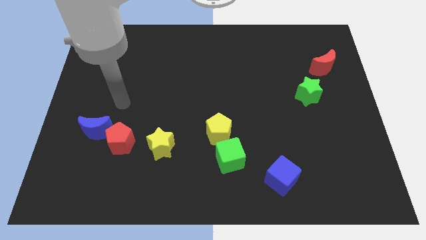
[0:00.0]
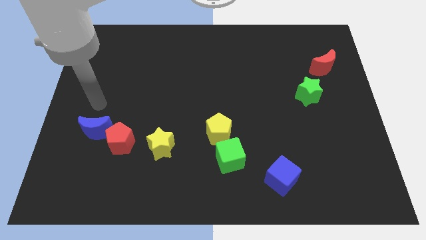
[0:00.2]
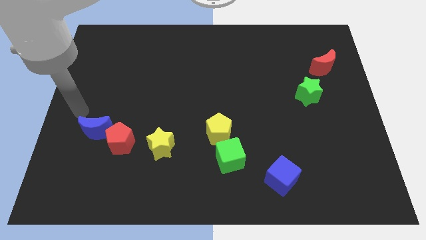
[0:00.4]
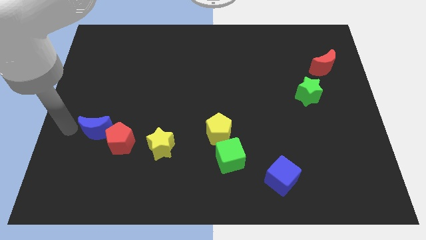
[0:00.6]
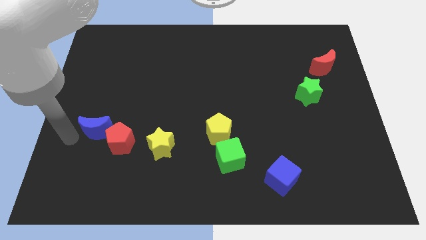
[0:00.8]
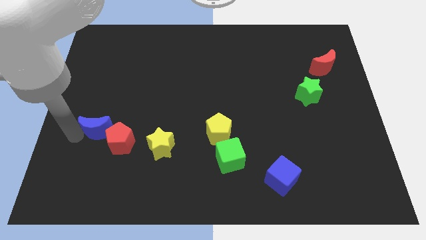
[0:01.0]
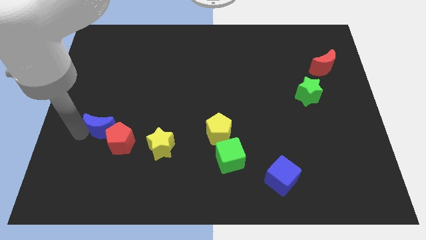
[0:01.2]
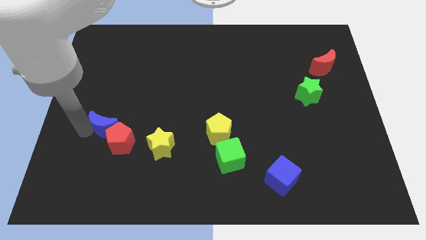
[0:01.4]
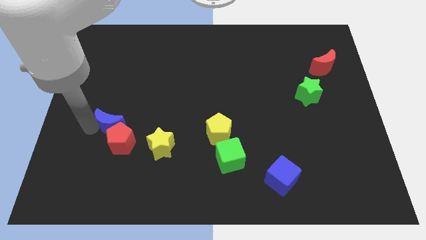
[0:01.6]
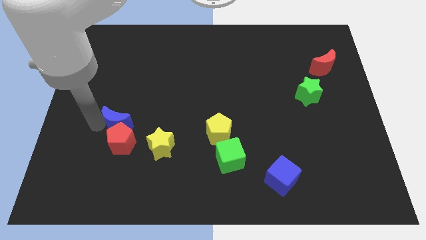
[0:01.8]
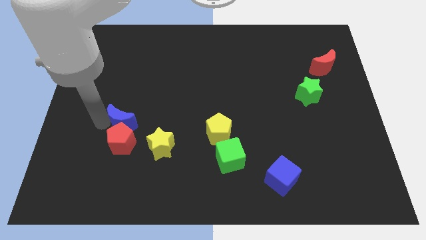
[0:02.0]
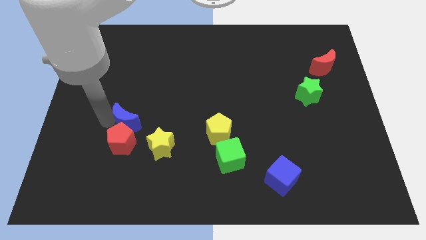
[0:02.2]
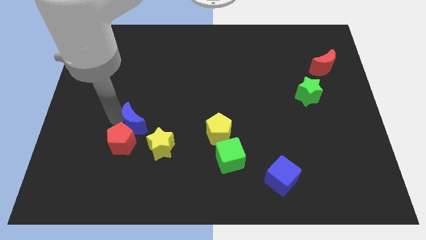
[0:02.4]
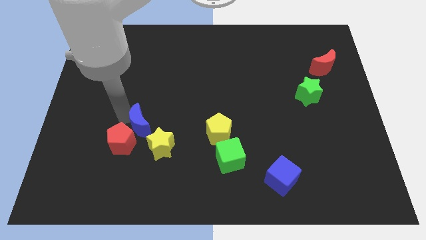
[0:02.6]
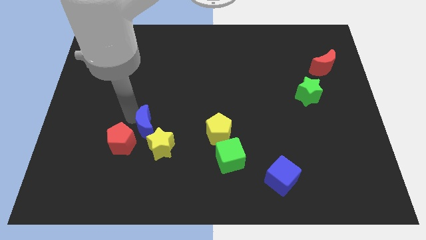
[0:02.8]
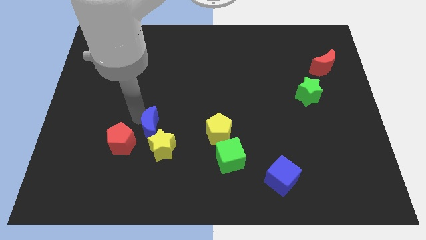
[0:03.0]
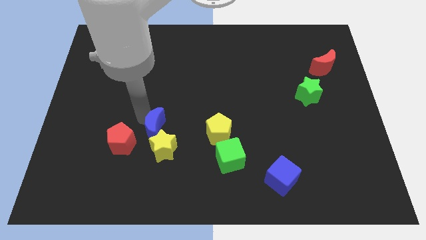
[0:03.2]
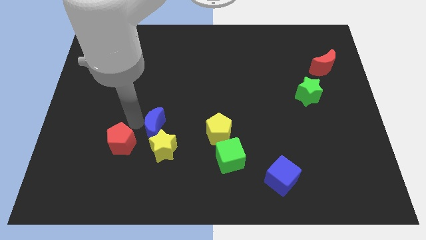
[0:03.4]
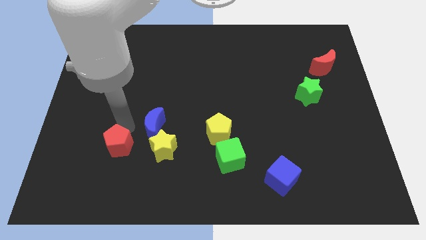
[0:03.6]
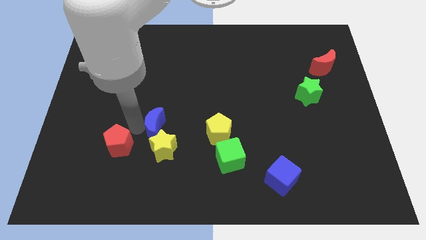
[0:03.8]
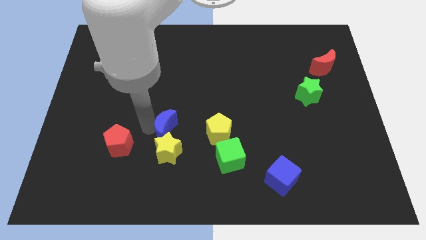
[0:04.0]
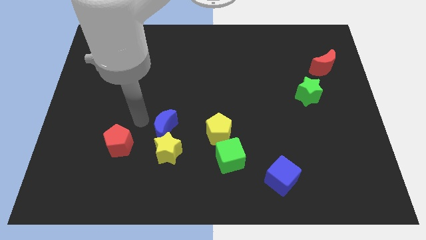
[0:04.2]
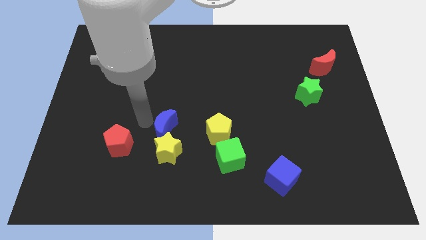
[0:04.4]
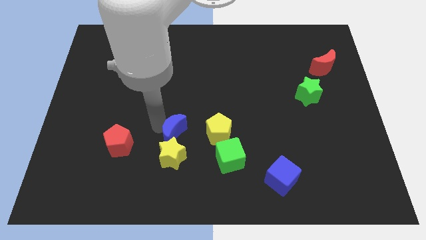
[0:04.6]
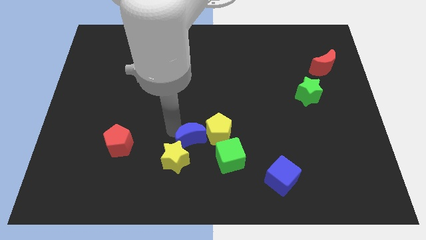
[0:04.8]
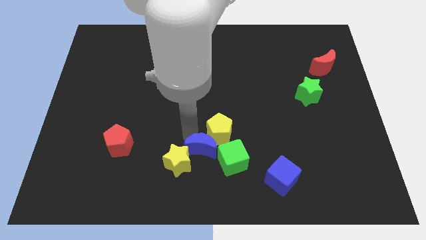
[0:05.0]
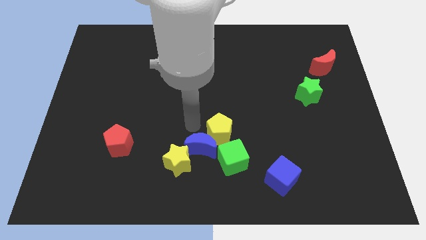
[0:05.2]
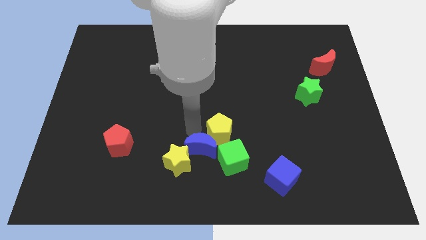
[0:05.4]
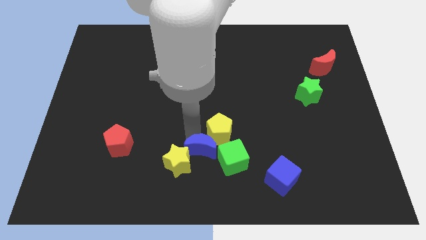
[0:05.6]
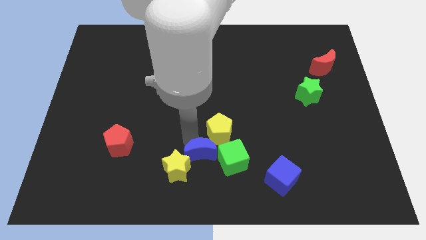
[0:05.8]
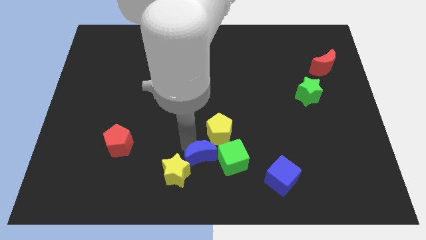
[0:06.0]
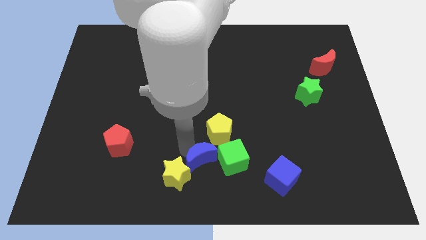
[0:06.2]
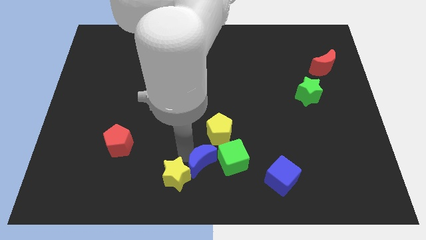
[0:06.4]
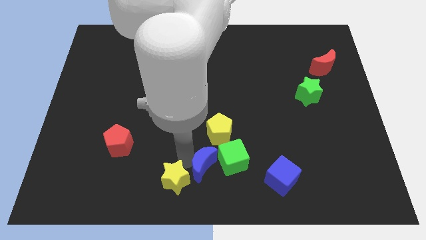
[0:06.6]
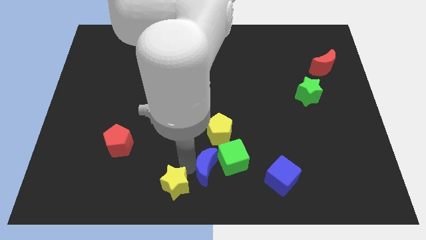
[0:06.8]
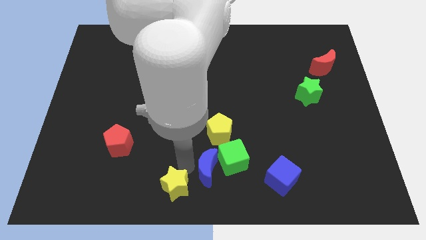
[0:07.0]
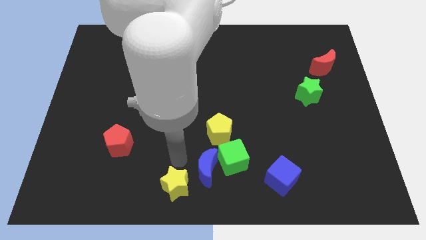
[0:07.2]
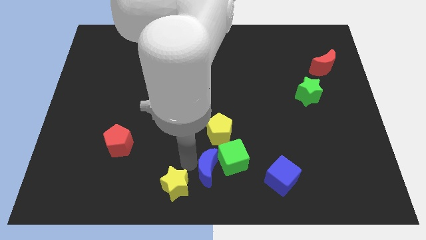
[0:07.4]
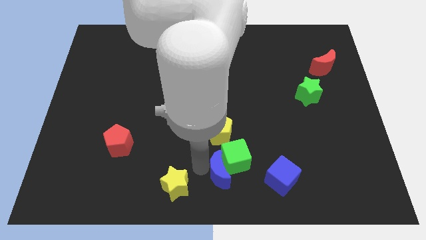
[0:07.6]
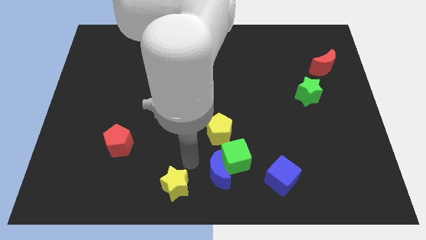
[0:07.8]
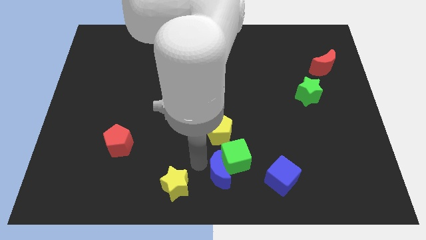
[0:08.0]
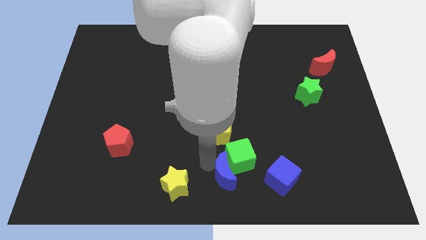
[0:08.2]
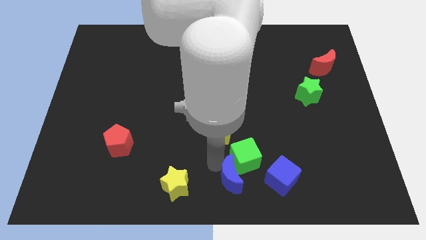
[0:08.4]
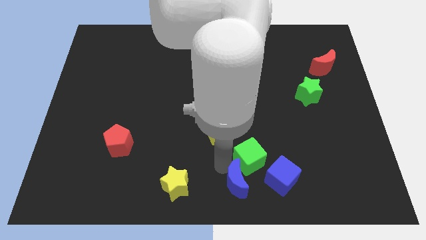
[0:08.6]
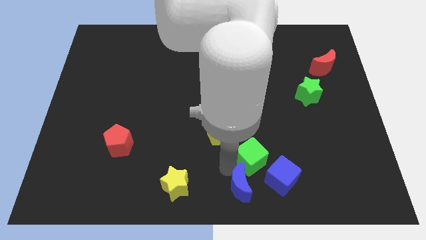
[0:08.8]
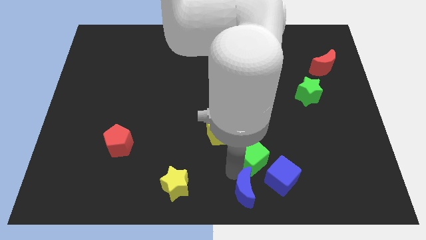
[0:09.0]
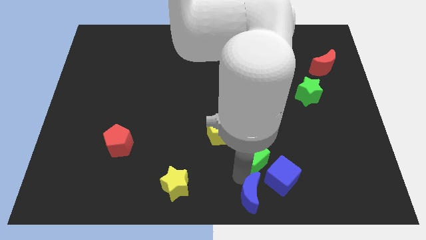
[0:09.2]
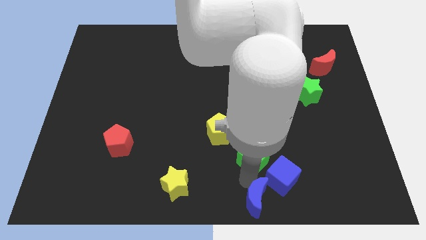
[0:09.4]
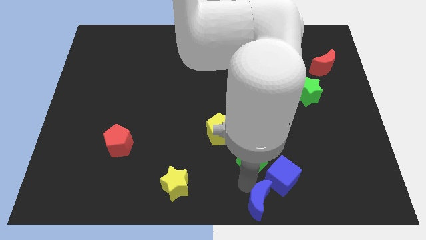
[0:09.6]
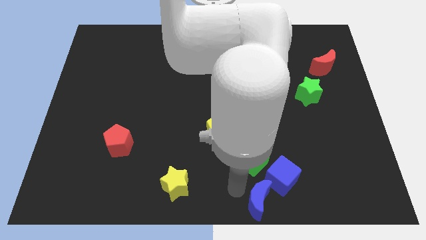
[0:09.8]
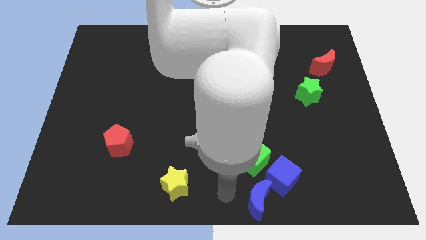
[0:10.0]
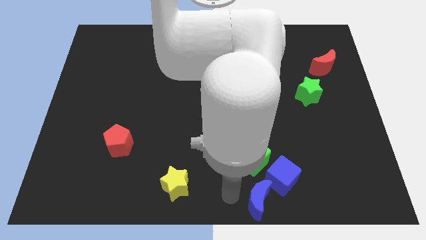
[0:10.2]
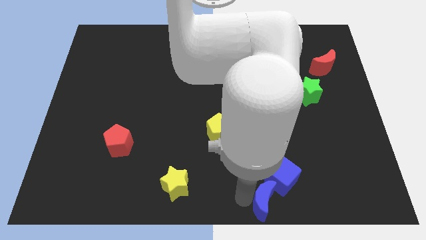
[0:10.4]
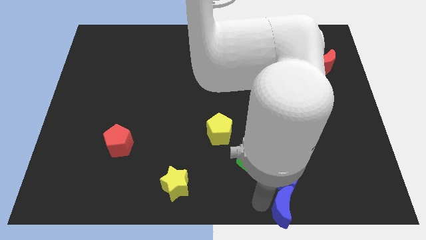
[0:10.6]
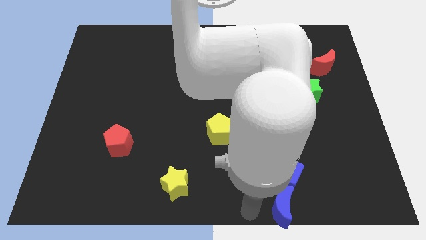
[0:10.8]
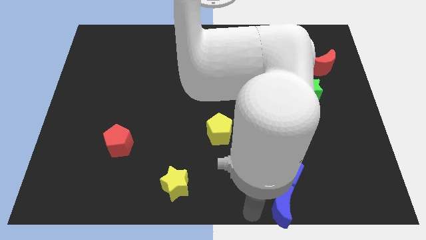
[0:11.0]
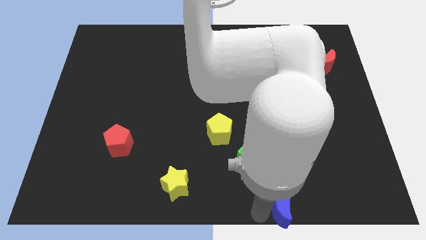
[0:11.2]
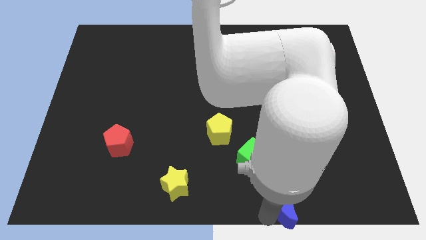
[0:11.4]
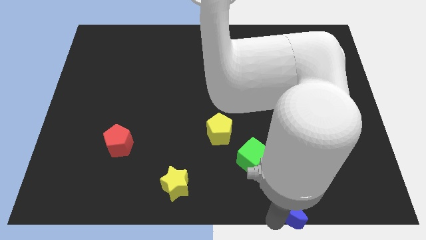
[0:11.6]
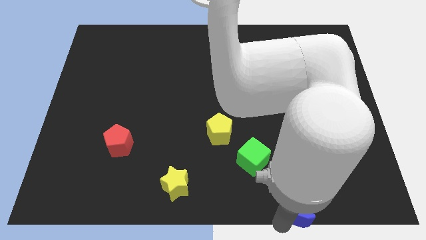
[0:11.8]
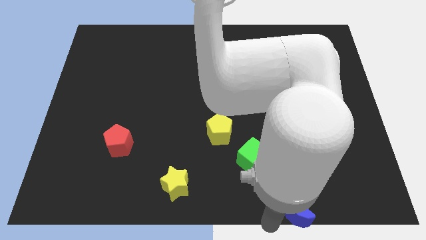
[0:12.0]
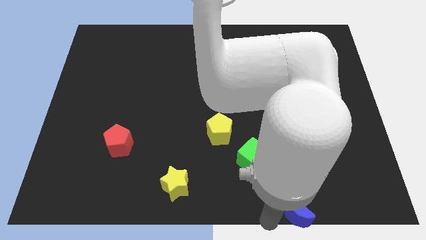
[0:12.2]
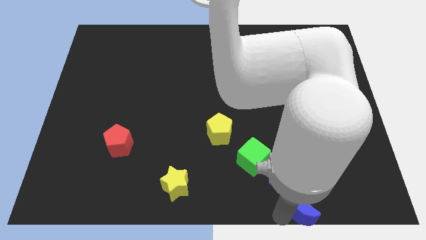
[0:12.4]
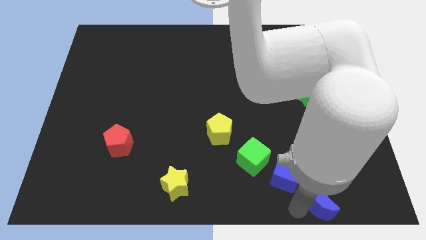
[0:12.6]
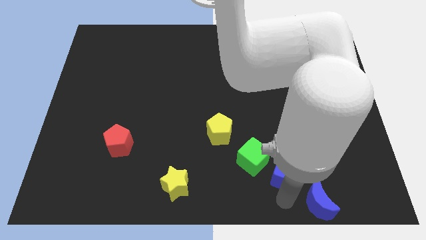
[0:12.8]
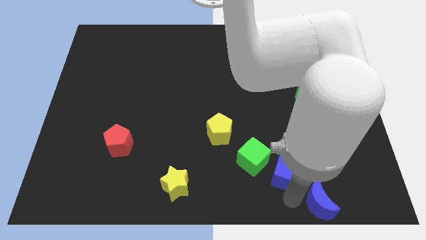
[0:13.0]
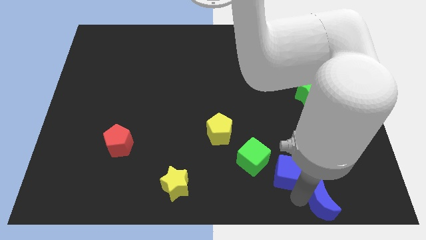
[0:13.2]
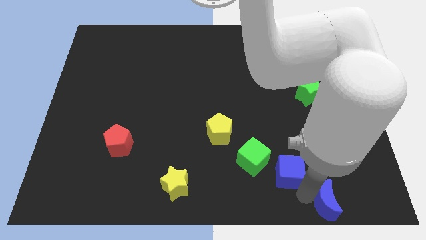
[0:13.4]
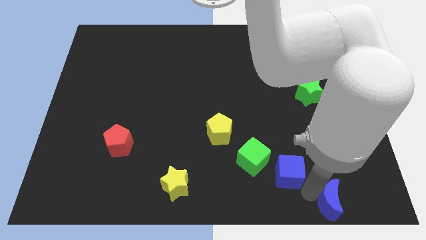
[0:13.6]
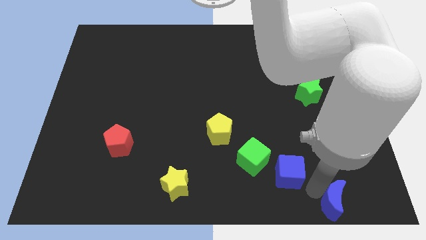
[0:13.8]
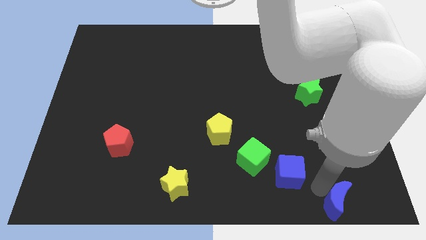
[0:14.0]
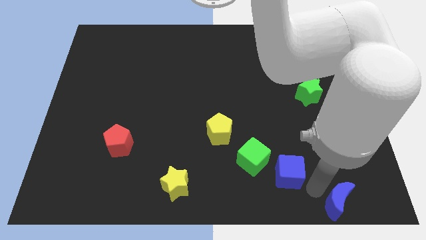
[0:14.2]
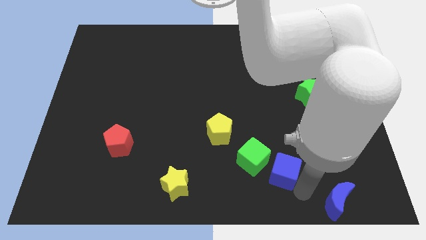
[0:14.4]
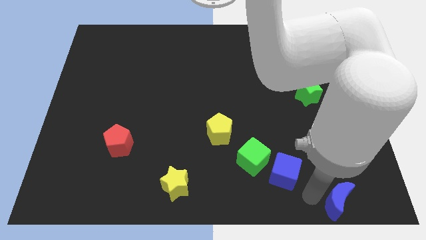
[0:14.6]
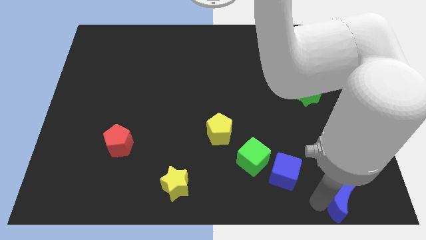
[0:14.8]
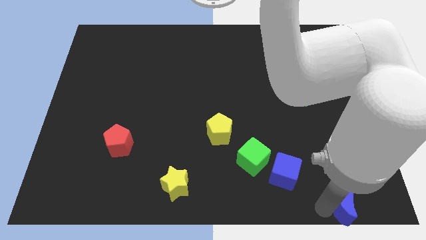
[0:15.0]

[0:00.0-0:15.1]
push the blue moon to the bottom right corner
